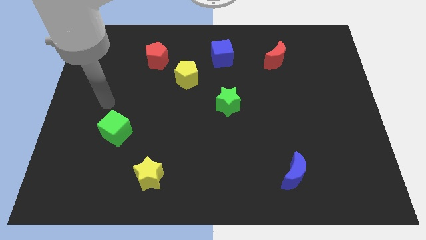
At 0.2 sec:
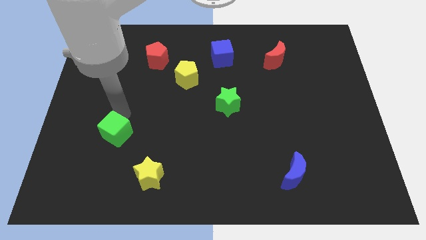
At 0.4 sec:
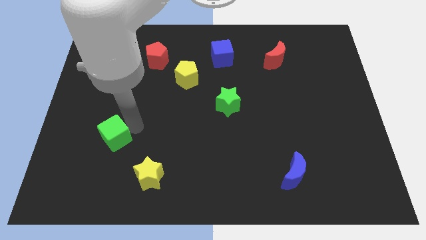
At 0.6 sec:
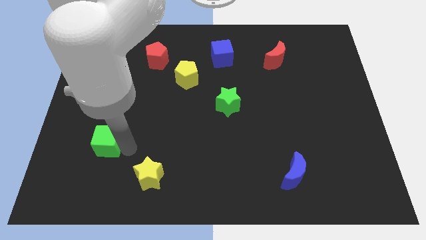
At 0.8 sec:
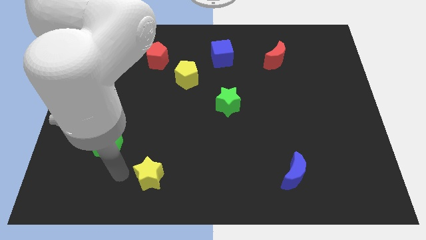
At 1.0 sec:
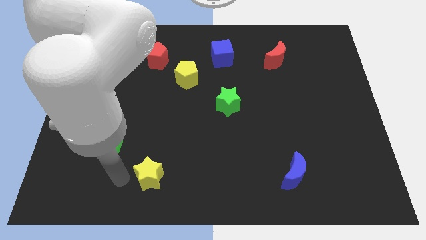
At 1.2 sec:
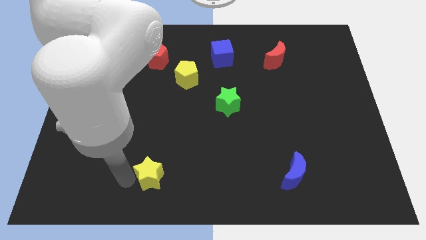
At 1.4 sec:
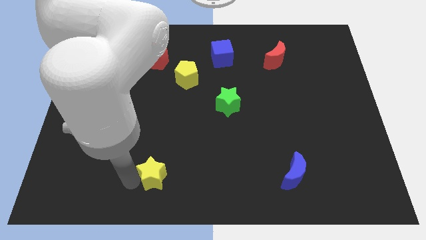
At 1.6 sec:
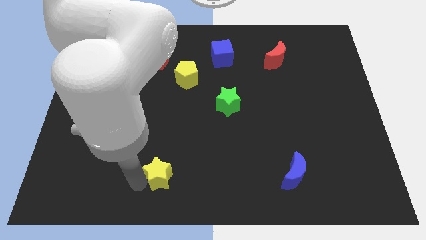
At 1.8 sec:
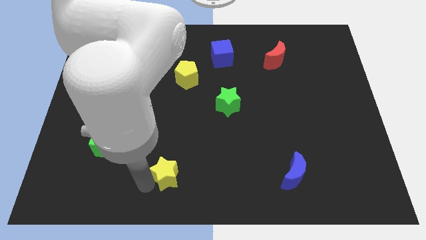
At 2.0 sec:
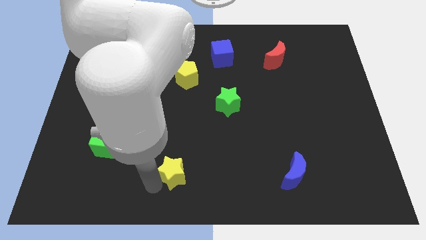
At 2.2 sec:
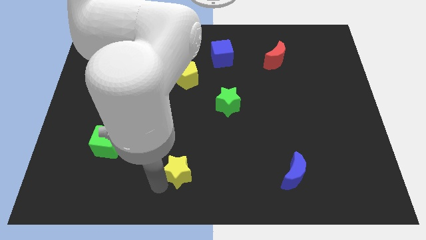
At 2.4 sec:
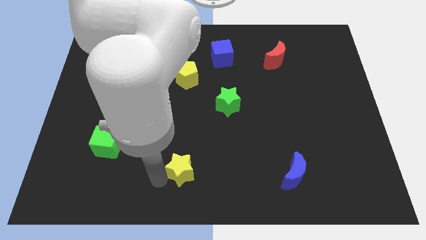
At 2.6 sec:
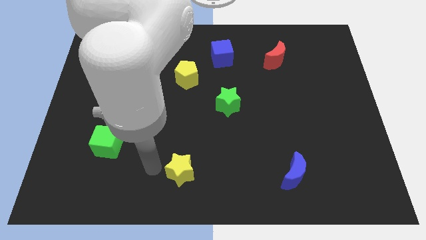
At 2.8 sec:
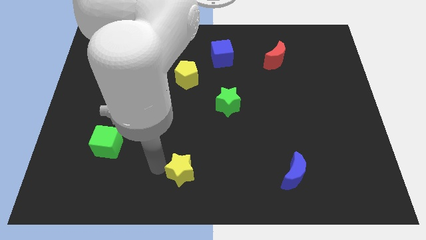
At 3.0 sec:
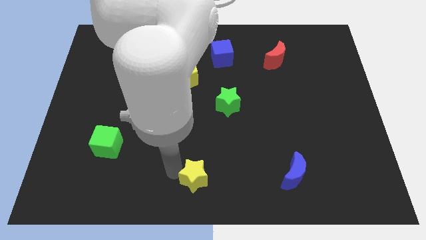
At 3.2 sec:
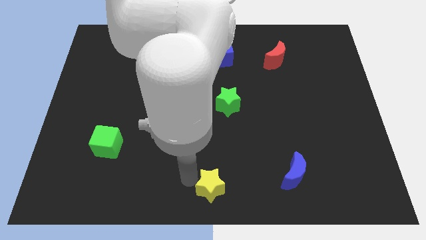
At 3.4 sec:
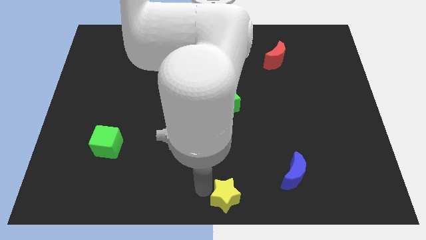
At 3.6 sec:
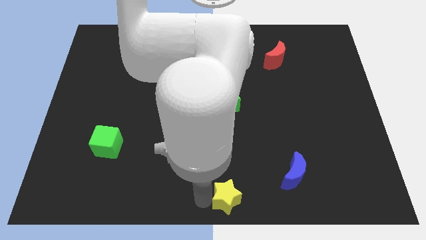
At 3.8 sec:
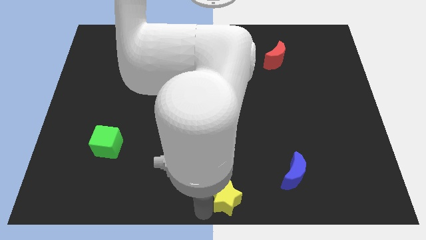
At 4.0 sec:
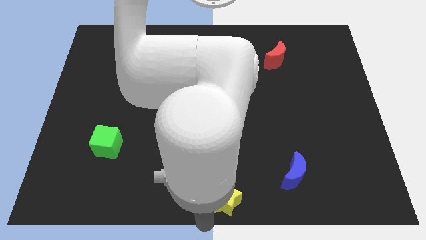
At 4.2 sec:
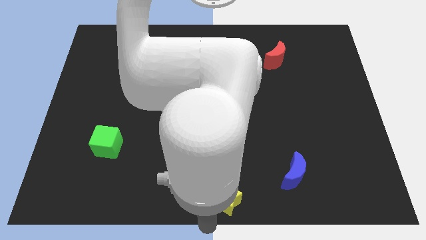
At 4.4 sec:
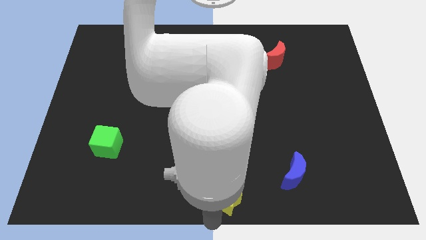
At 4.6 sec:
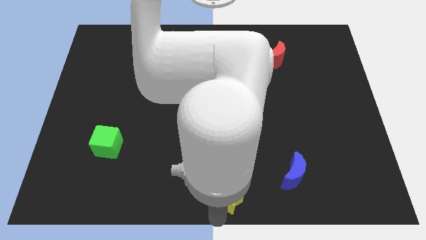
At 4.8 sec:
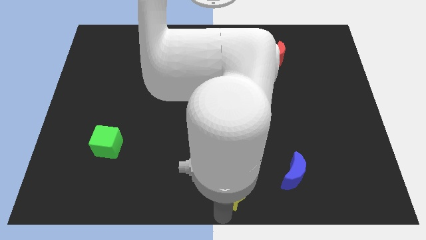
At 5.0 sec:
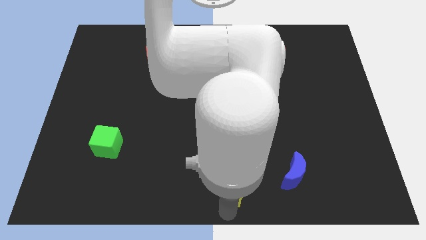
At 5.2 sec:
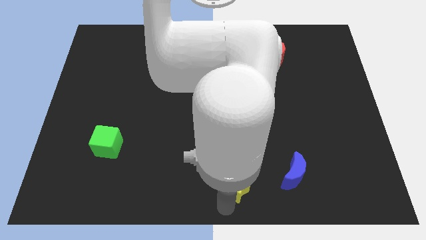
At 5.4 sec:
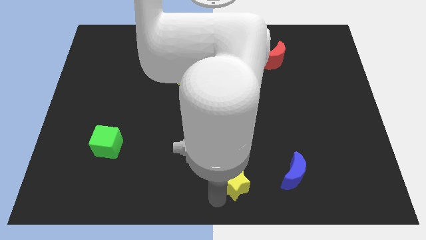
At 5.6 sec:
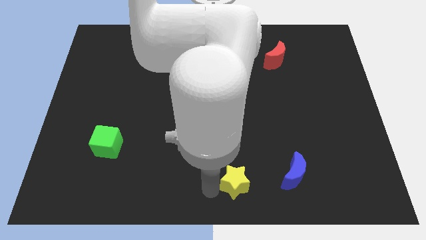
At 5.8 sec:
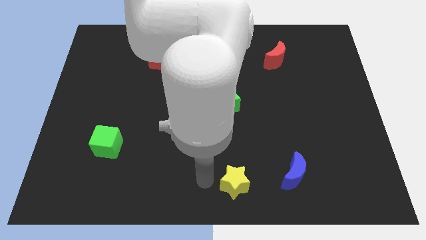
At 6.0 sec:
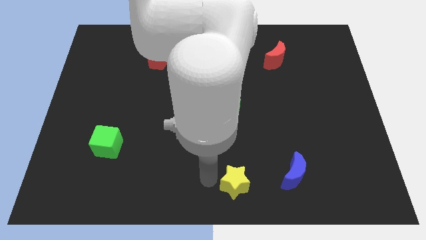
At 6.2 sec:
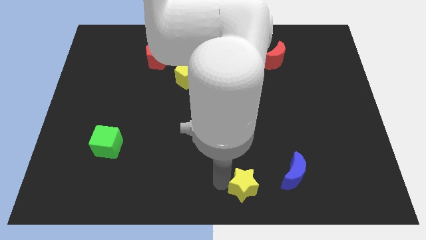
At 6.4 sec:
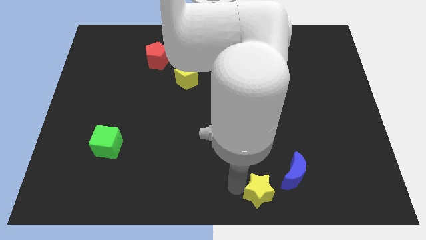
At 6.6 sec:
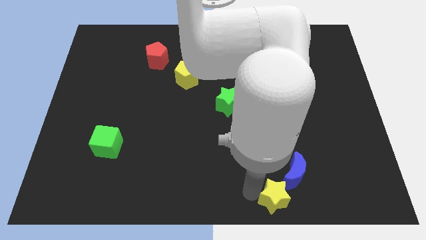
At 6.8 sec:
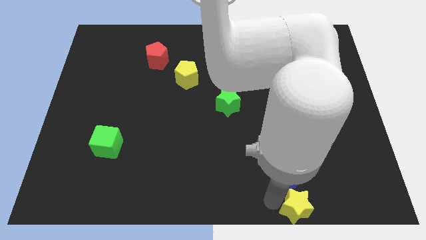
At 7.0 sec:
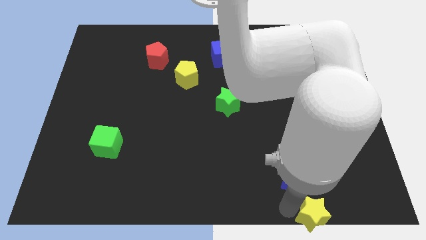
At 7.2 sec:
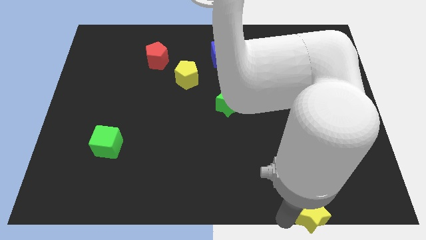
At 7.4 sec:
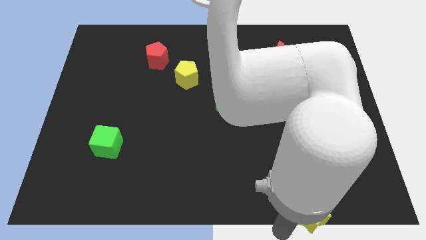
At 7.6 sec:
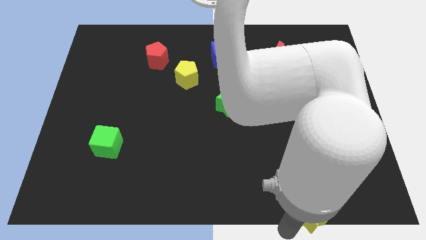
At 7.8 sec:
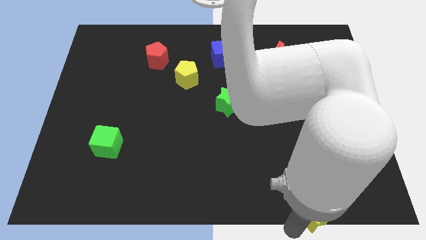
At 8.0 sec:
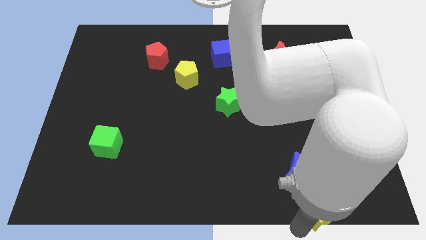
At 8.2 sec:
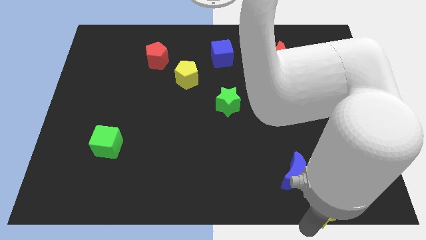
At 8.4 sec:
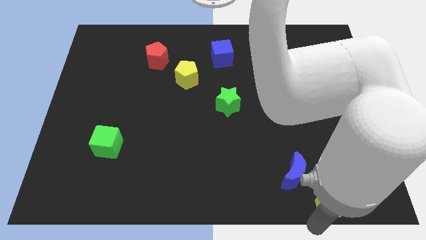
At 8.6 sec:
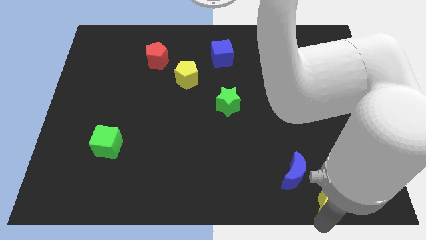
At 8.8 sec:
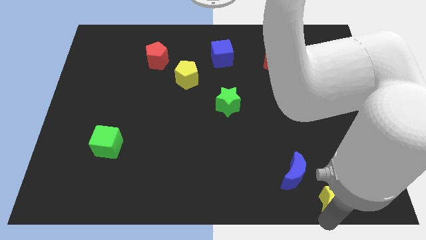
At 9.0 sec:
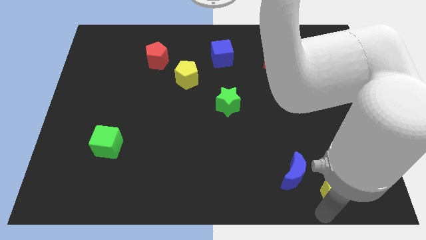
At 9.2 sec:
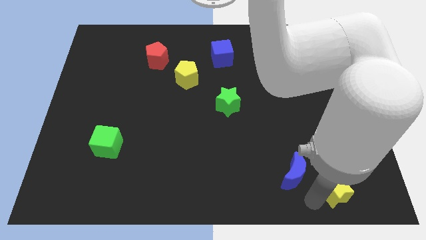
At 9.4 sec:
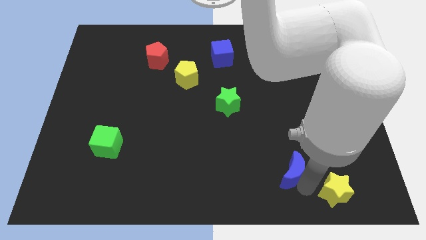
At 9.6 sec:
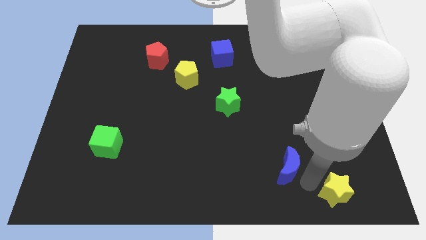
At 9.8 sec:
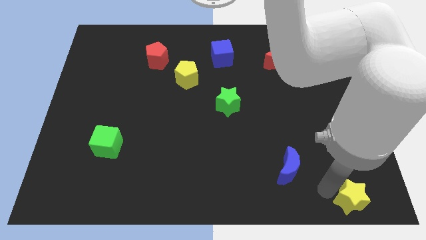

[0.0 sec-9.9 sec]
move the yellow star to the bottom right corner

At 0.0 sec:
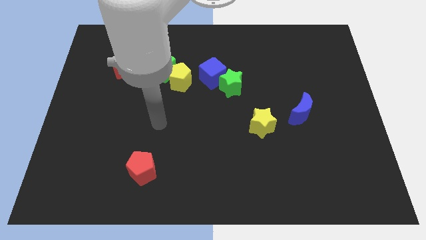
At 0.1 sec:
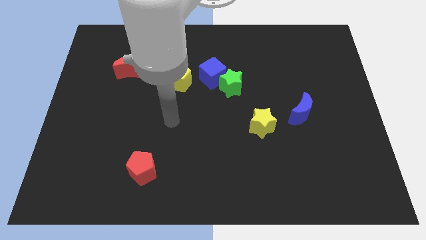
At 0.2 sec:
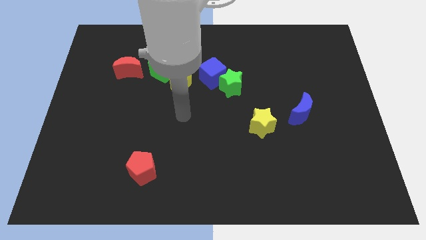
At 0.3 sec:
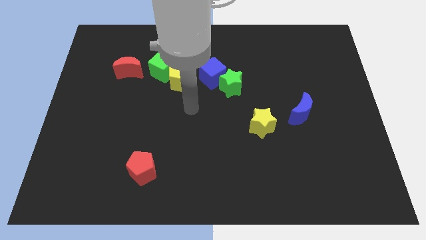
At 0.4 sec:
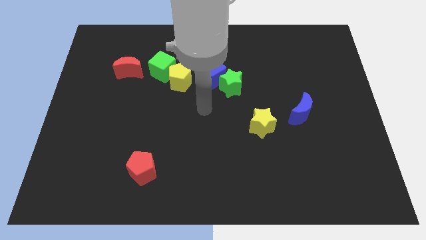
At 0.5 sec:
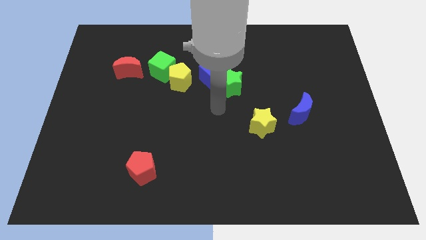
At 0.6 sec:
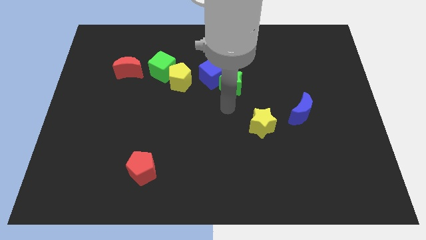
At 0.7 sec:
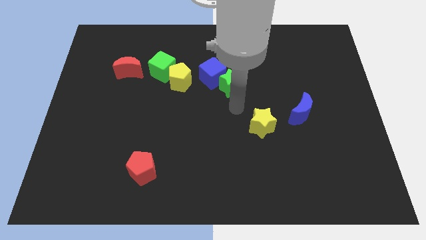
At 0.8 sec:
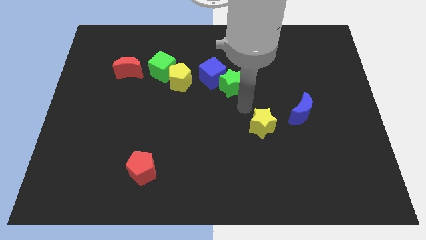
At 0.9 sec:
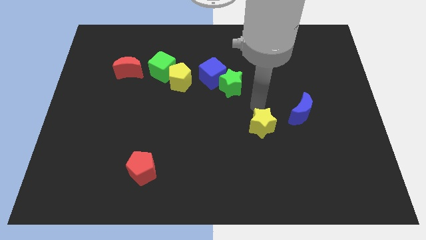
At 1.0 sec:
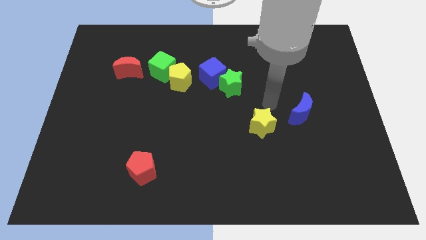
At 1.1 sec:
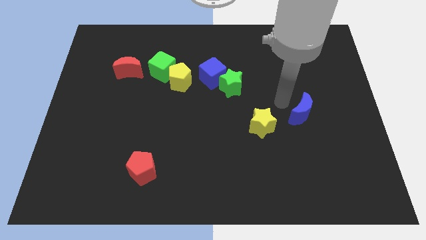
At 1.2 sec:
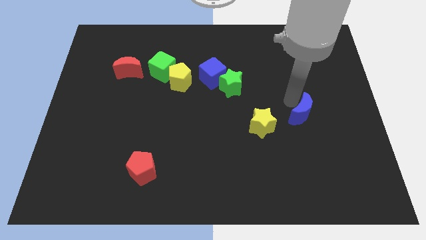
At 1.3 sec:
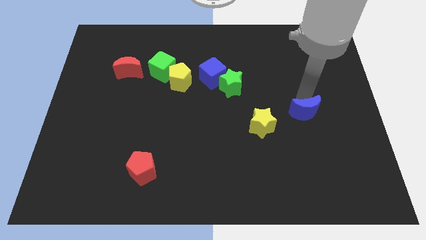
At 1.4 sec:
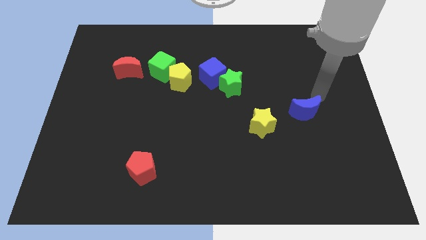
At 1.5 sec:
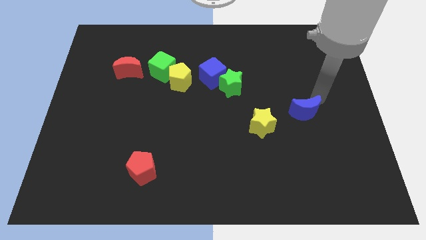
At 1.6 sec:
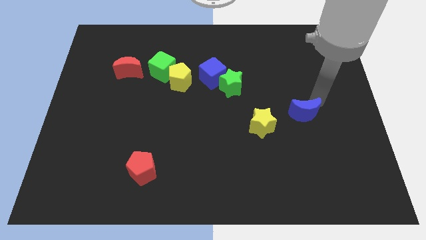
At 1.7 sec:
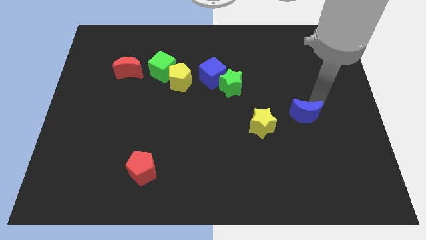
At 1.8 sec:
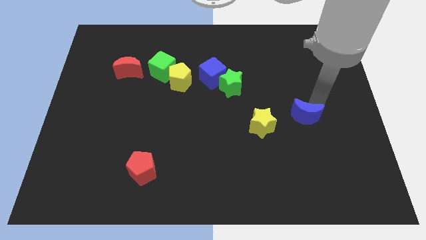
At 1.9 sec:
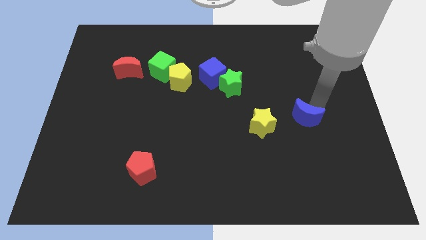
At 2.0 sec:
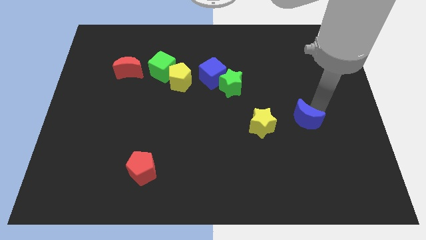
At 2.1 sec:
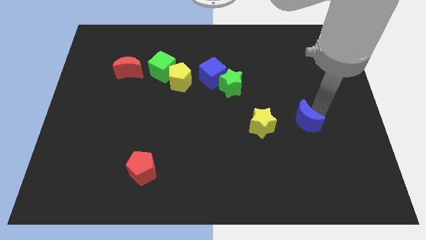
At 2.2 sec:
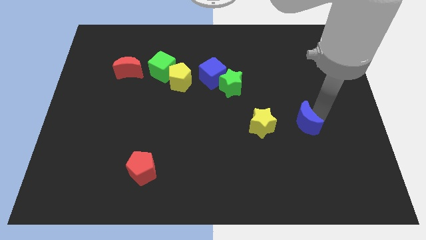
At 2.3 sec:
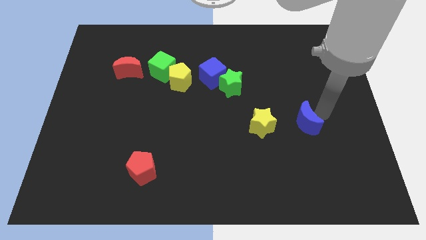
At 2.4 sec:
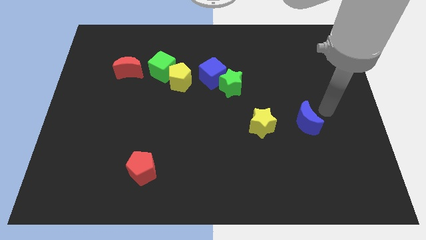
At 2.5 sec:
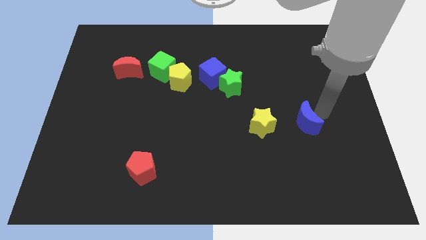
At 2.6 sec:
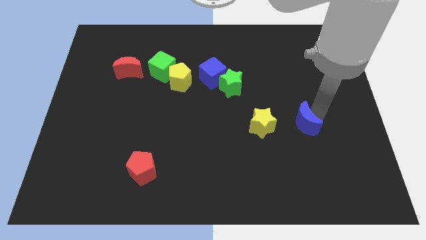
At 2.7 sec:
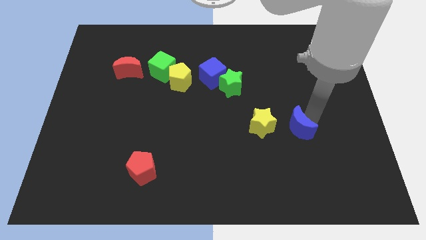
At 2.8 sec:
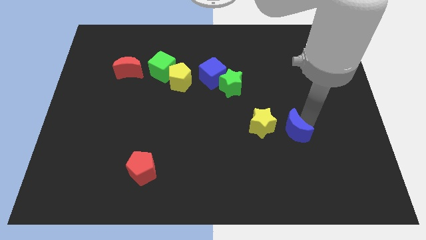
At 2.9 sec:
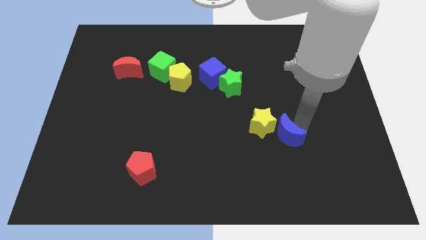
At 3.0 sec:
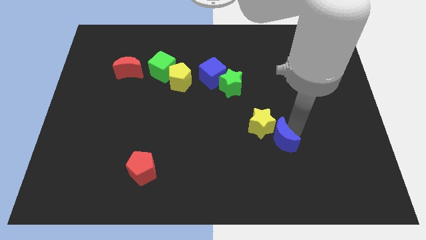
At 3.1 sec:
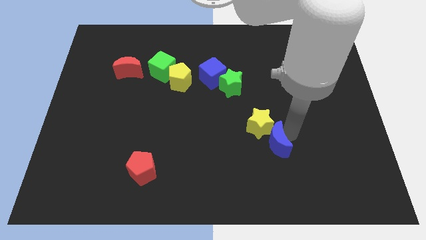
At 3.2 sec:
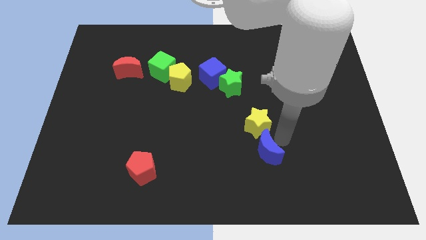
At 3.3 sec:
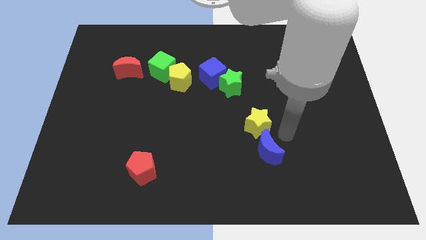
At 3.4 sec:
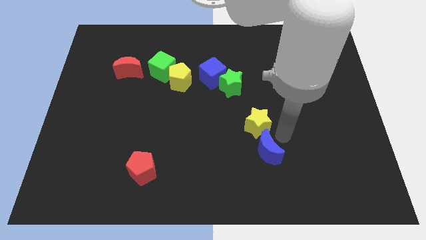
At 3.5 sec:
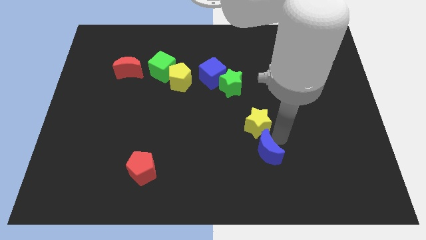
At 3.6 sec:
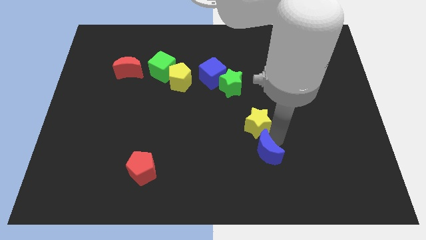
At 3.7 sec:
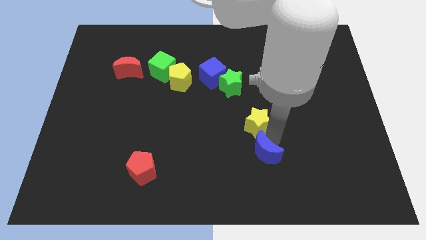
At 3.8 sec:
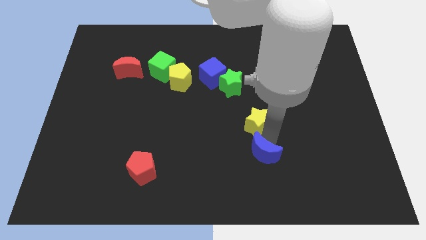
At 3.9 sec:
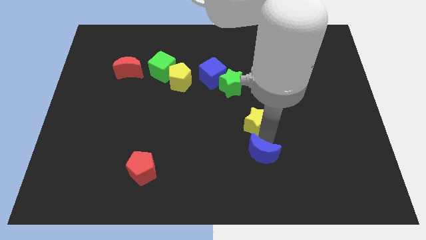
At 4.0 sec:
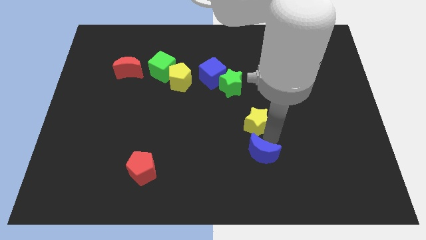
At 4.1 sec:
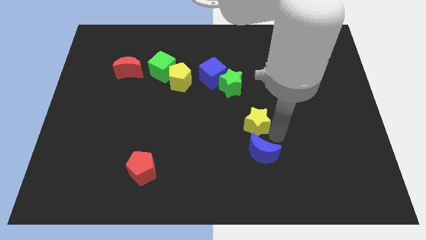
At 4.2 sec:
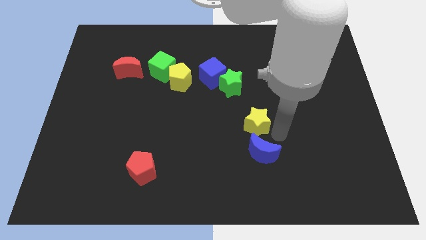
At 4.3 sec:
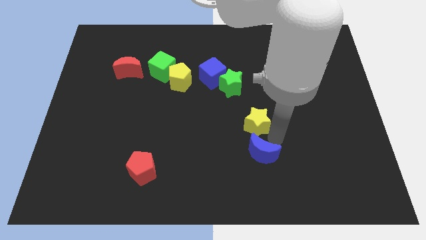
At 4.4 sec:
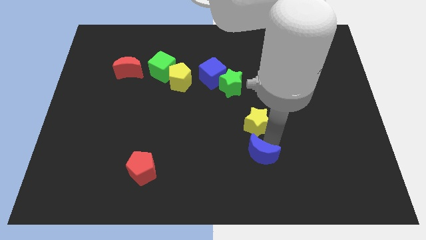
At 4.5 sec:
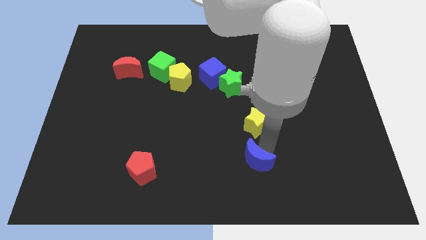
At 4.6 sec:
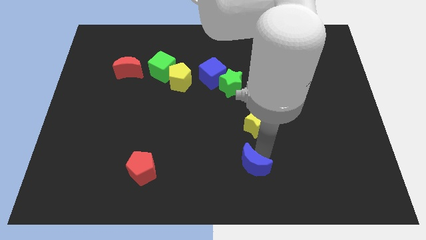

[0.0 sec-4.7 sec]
push the blue moon to the bottom side
